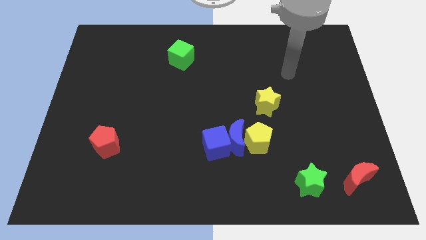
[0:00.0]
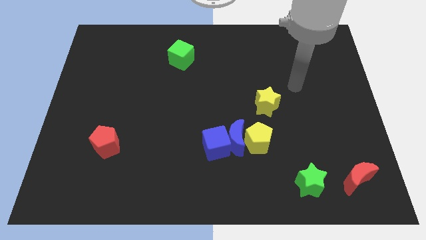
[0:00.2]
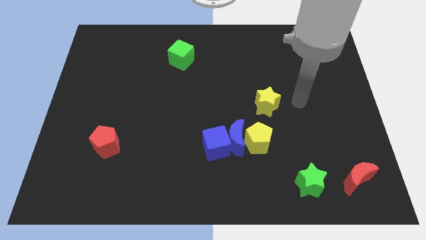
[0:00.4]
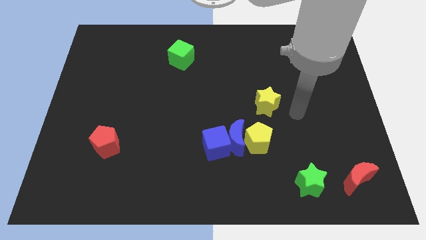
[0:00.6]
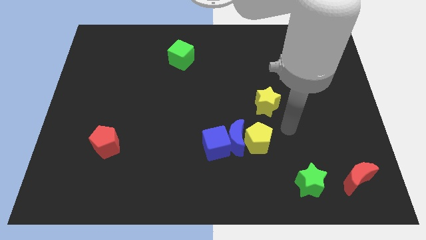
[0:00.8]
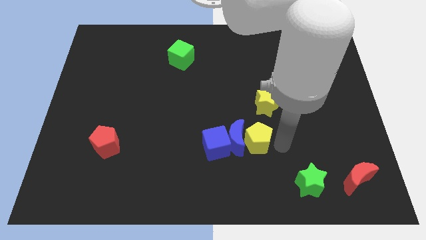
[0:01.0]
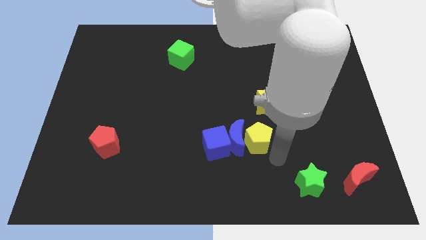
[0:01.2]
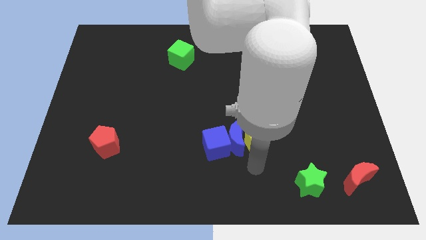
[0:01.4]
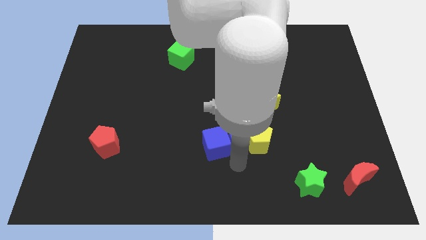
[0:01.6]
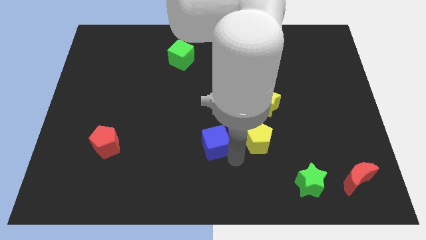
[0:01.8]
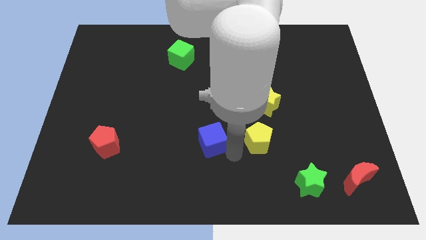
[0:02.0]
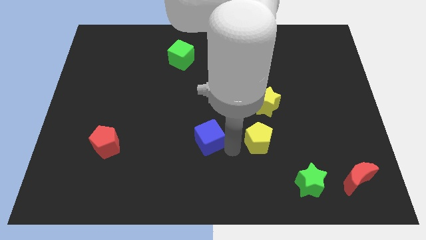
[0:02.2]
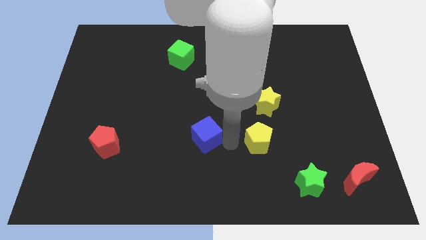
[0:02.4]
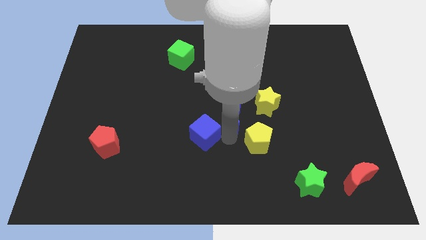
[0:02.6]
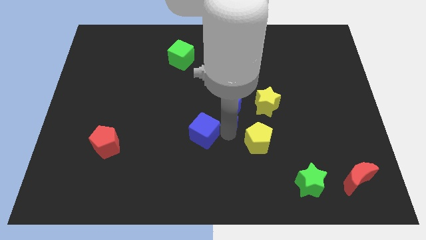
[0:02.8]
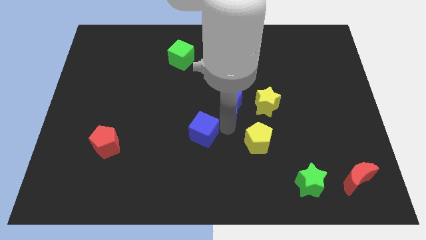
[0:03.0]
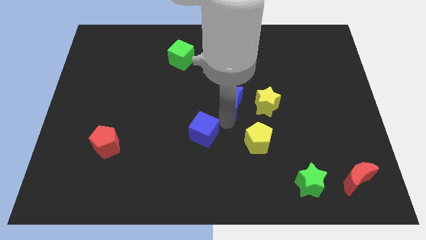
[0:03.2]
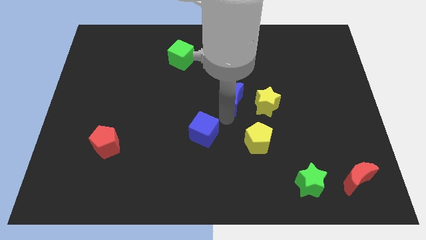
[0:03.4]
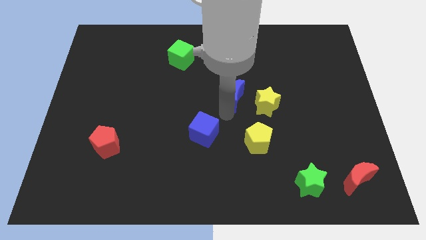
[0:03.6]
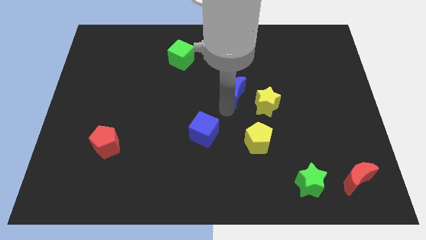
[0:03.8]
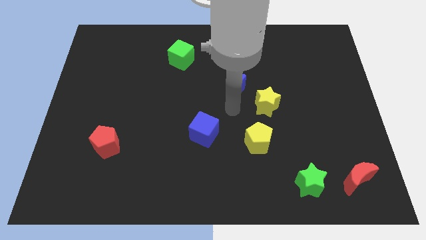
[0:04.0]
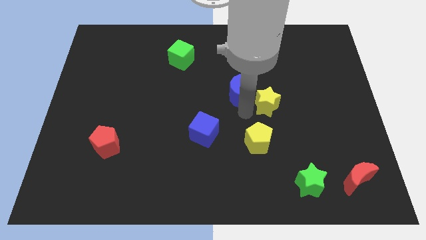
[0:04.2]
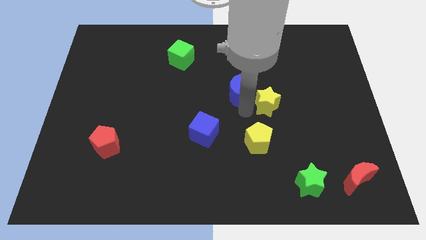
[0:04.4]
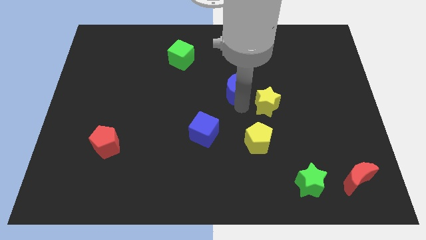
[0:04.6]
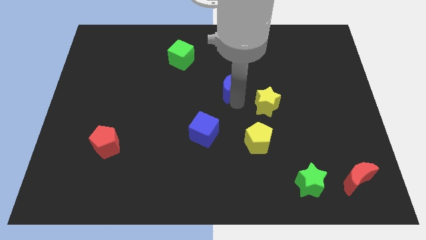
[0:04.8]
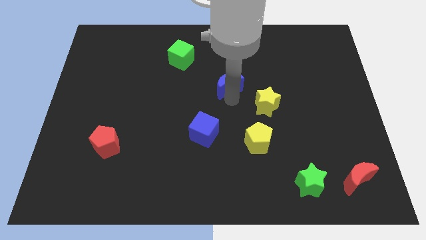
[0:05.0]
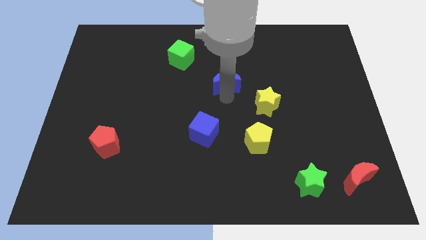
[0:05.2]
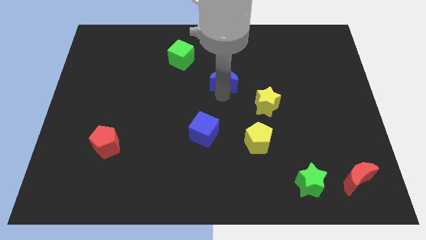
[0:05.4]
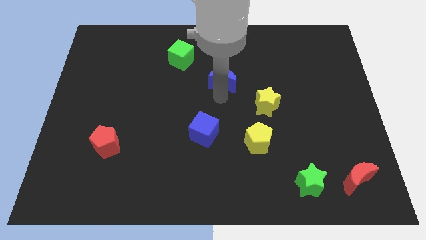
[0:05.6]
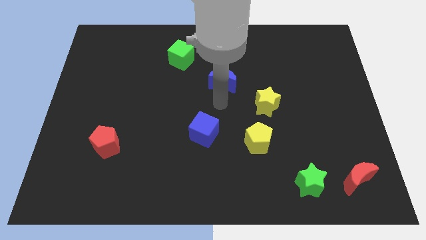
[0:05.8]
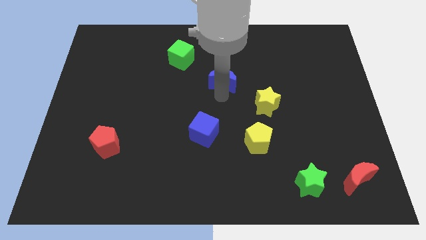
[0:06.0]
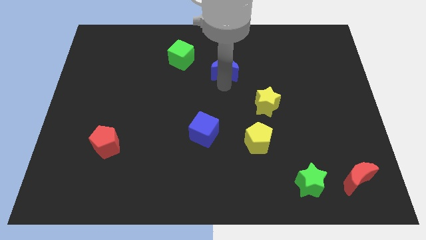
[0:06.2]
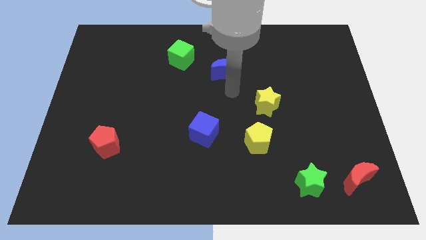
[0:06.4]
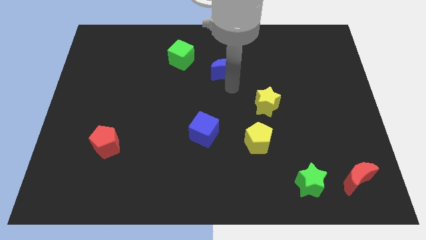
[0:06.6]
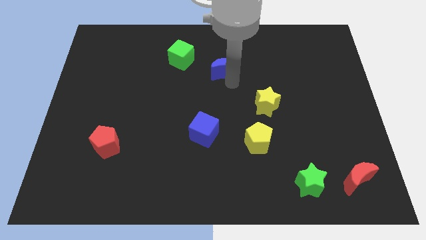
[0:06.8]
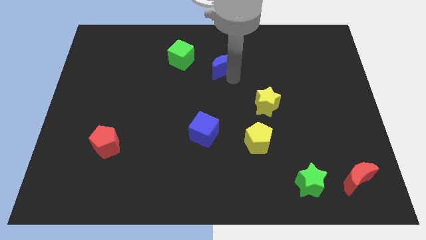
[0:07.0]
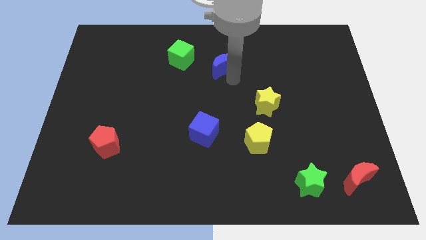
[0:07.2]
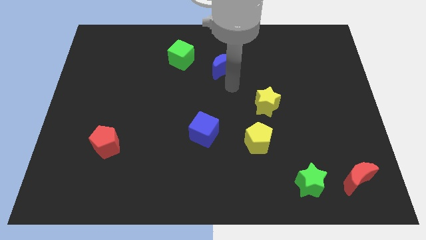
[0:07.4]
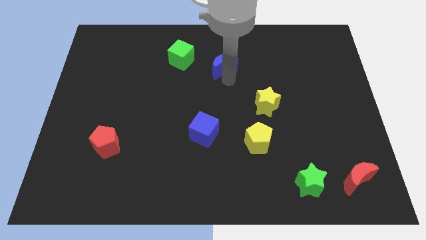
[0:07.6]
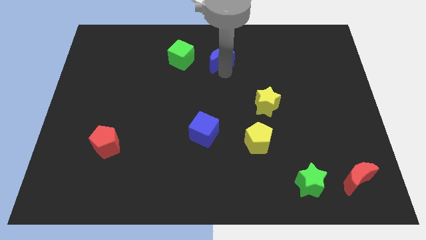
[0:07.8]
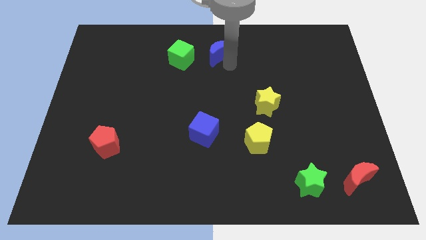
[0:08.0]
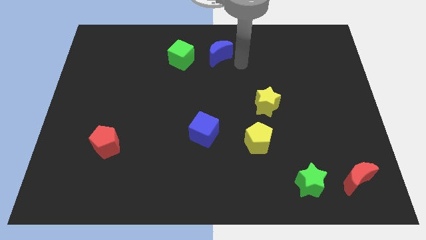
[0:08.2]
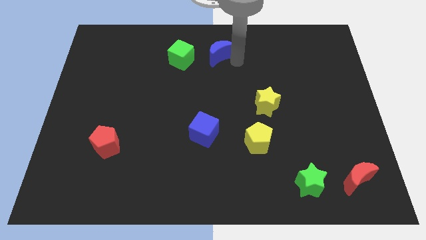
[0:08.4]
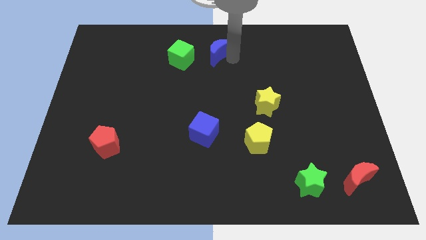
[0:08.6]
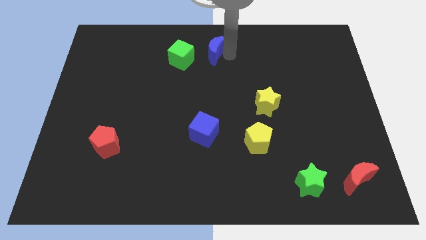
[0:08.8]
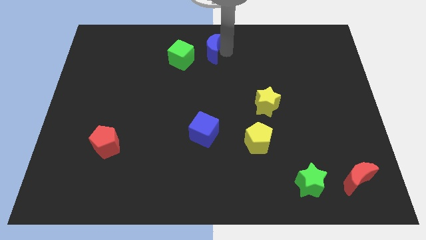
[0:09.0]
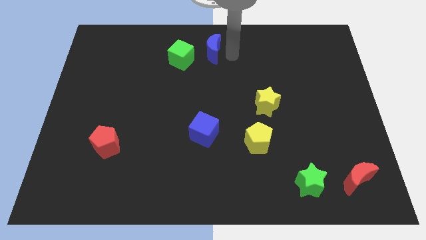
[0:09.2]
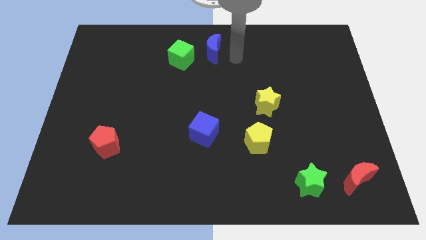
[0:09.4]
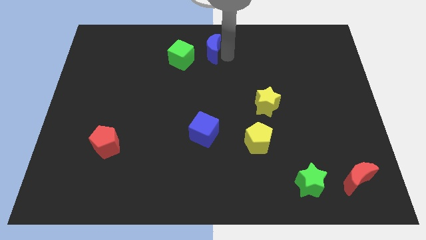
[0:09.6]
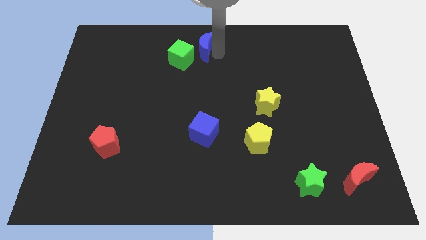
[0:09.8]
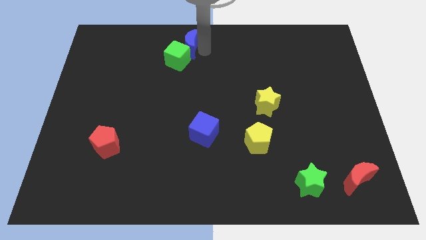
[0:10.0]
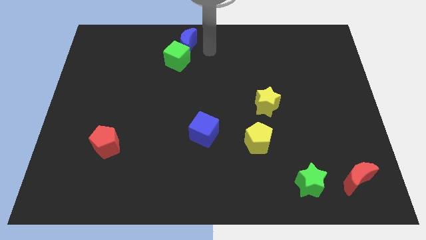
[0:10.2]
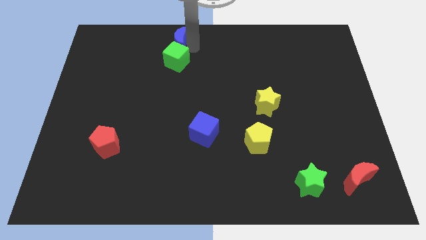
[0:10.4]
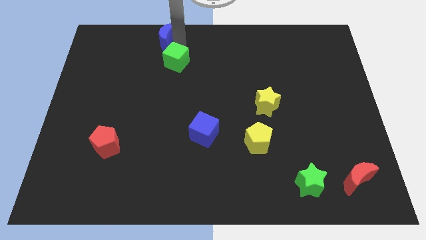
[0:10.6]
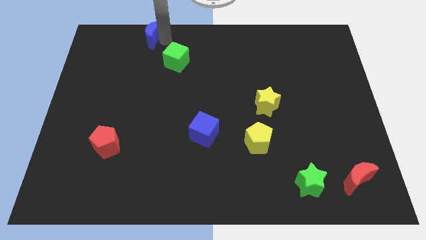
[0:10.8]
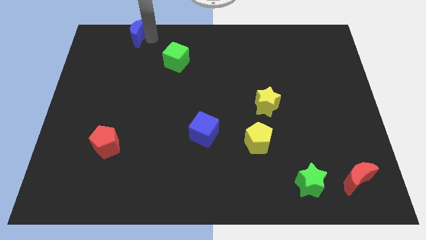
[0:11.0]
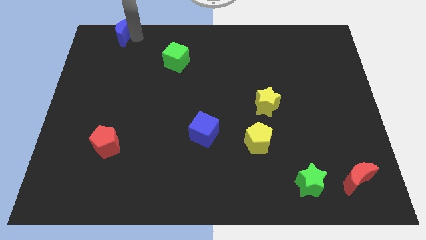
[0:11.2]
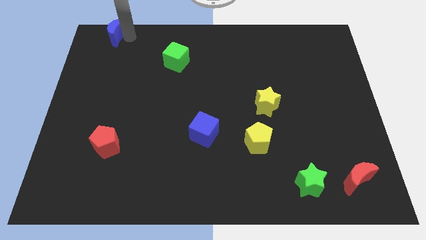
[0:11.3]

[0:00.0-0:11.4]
push the blue moon to the top left of the board
